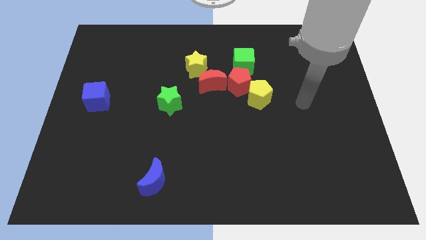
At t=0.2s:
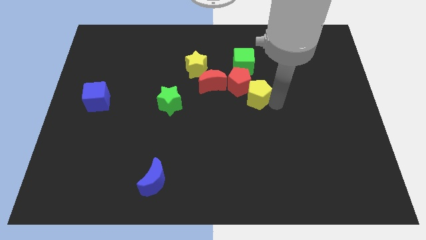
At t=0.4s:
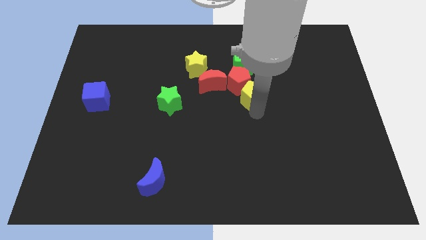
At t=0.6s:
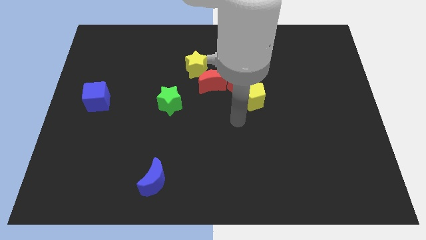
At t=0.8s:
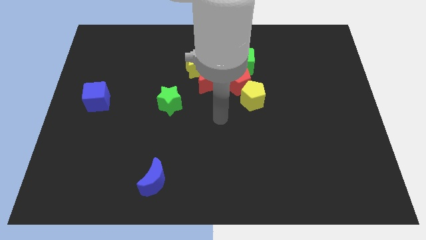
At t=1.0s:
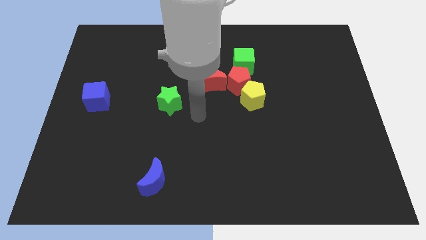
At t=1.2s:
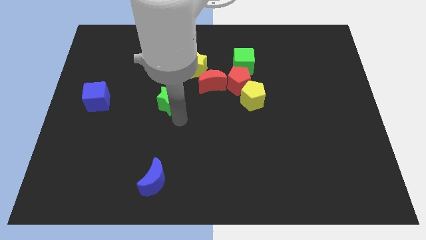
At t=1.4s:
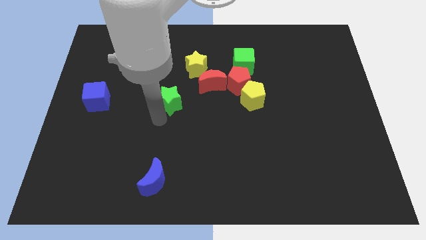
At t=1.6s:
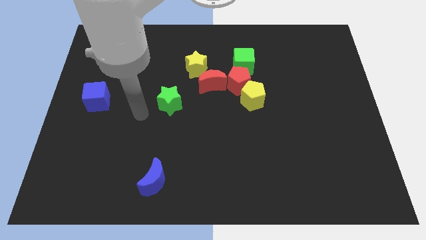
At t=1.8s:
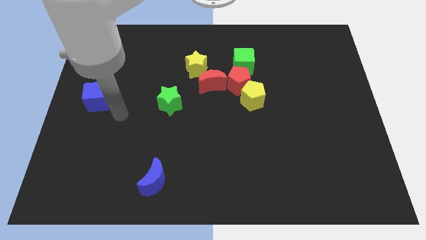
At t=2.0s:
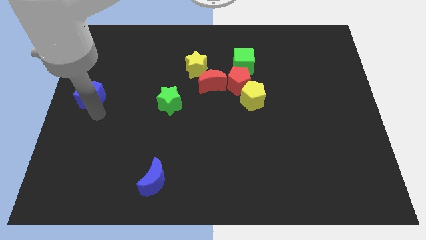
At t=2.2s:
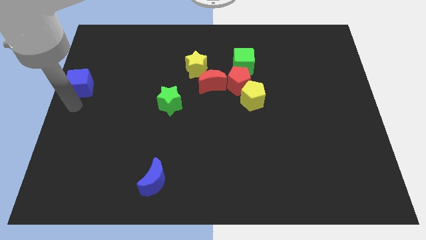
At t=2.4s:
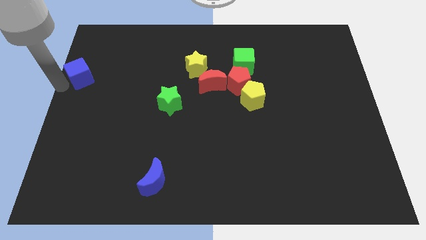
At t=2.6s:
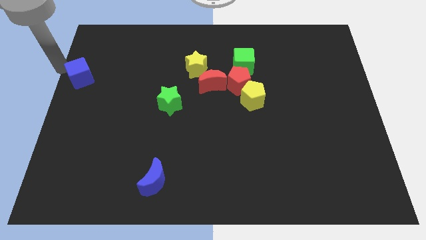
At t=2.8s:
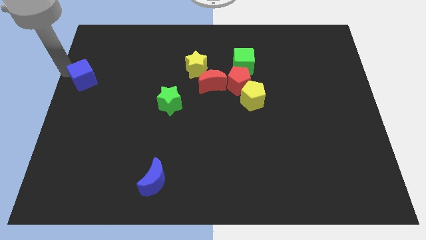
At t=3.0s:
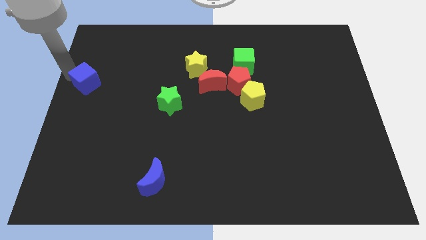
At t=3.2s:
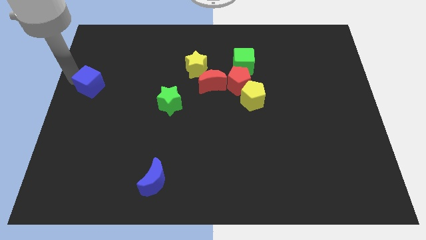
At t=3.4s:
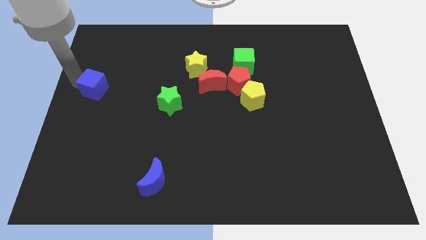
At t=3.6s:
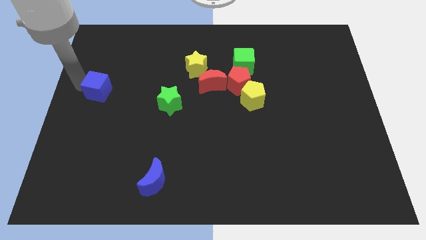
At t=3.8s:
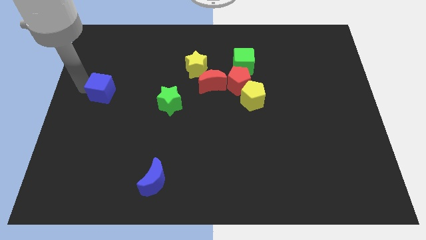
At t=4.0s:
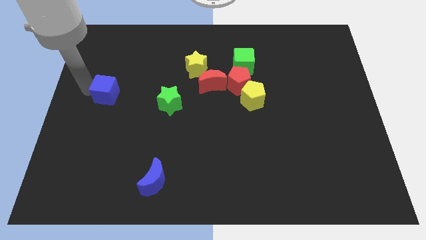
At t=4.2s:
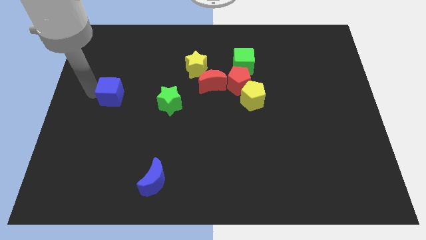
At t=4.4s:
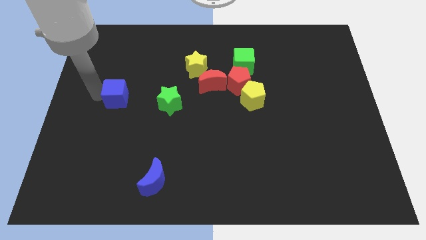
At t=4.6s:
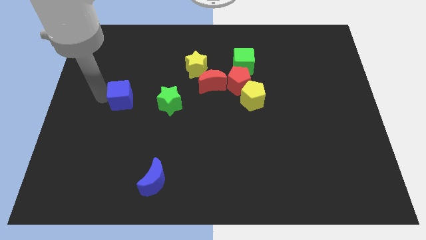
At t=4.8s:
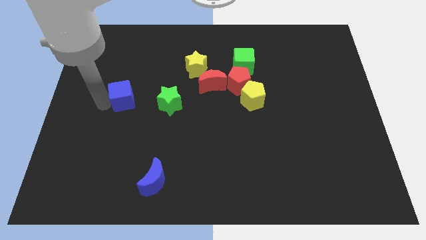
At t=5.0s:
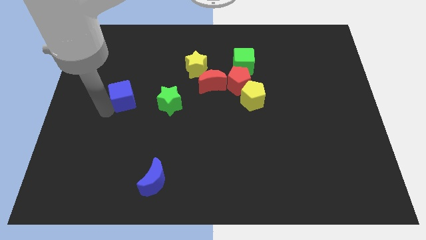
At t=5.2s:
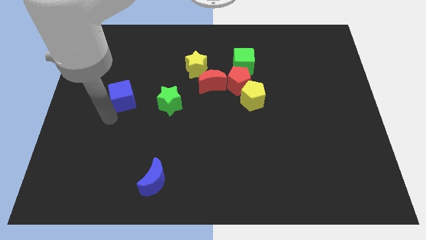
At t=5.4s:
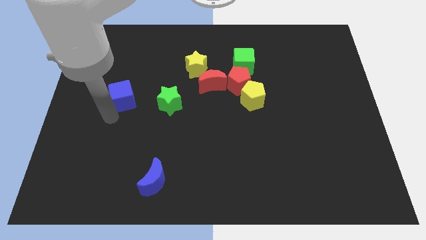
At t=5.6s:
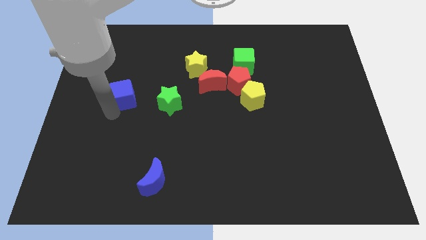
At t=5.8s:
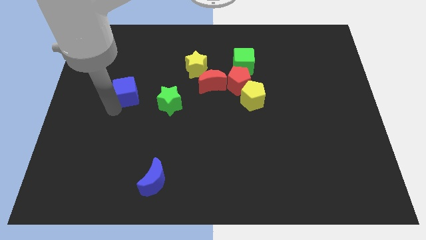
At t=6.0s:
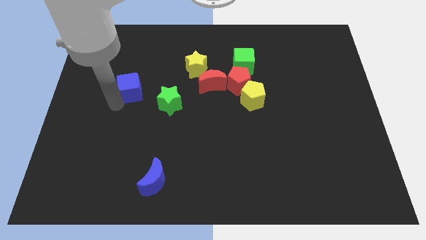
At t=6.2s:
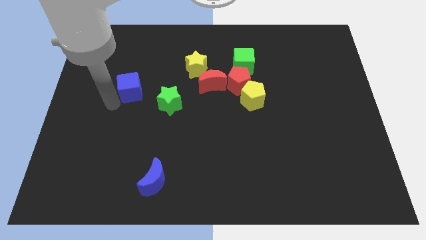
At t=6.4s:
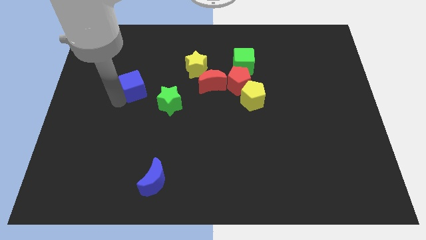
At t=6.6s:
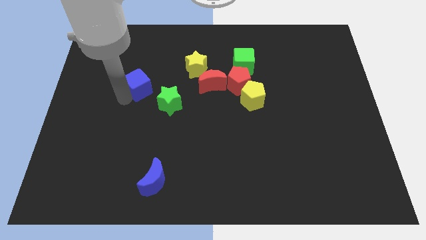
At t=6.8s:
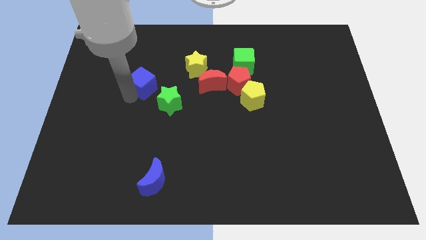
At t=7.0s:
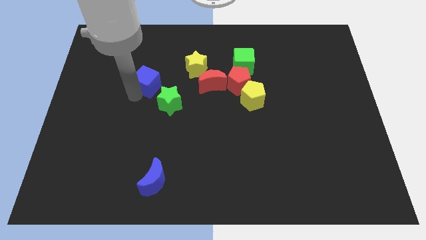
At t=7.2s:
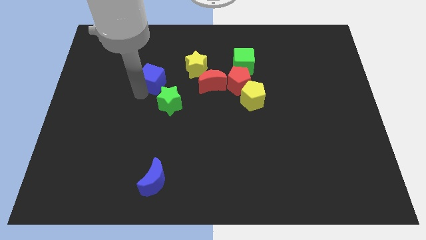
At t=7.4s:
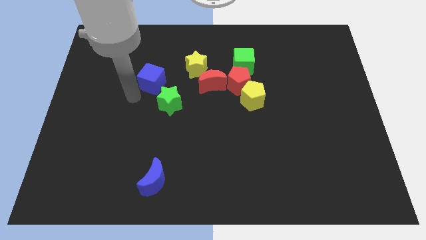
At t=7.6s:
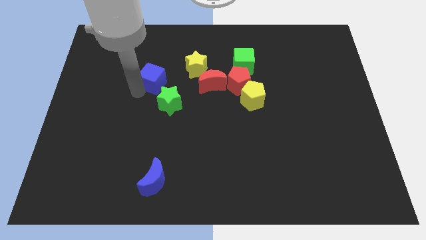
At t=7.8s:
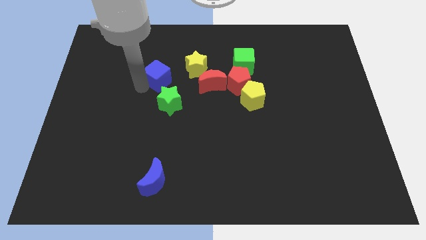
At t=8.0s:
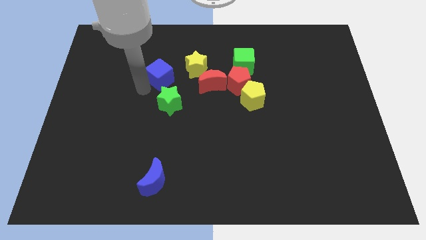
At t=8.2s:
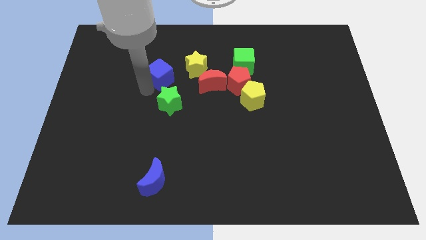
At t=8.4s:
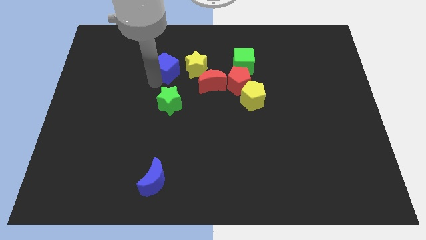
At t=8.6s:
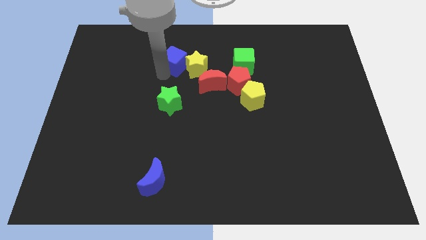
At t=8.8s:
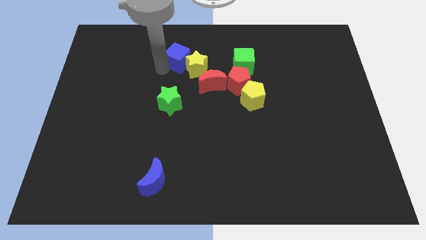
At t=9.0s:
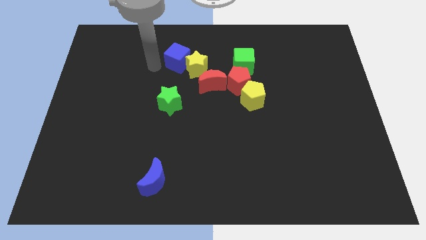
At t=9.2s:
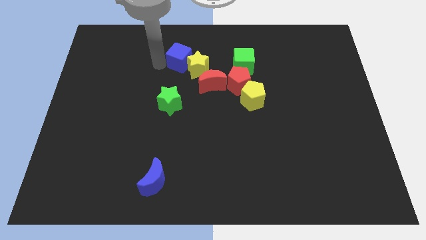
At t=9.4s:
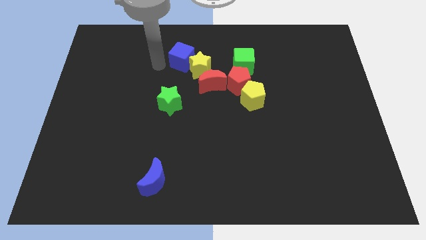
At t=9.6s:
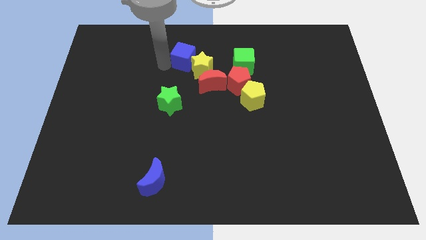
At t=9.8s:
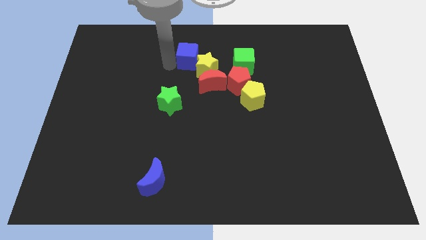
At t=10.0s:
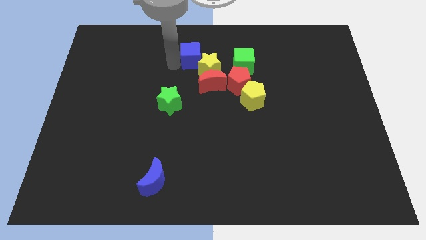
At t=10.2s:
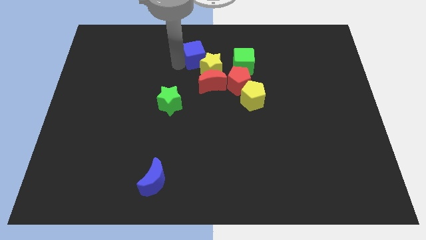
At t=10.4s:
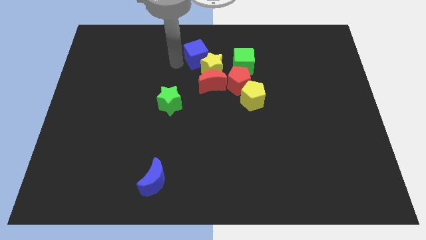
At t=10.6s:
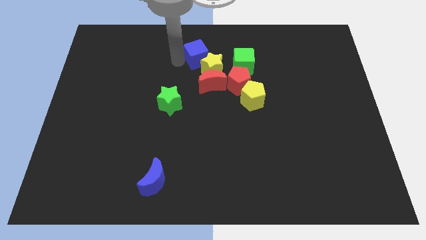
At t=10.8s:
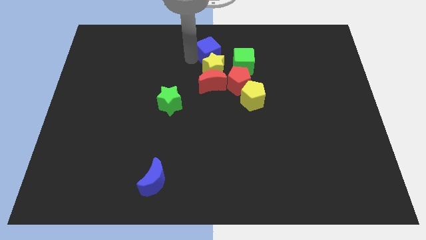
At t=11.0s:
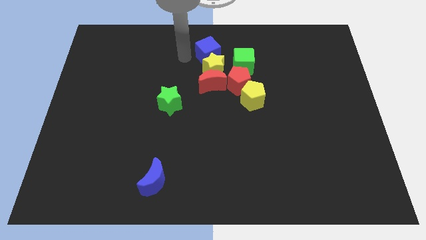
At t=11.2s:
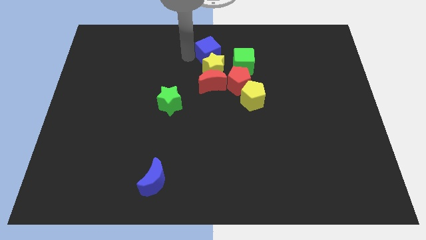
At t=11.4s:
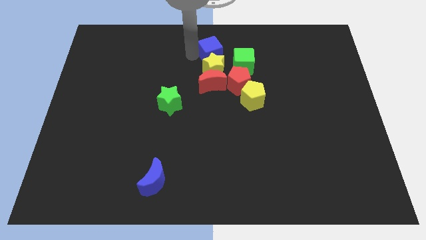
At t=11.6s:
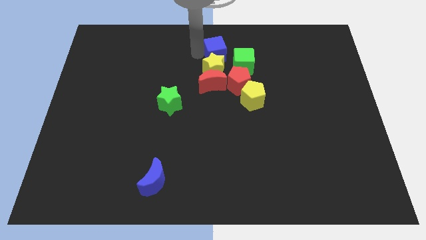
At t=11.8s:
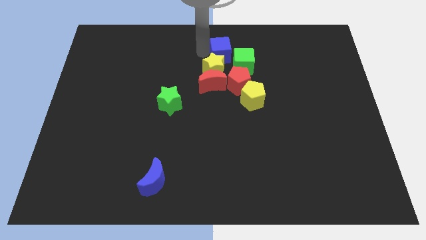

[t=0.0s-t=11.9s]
slide the blue cube to the top side of the red pentagon

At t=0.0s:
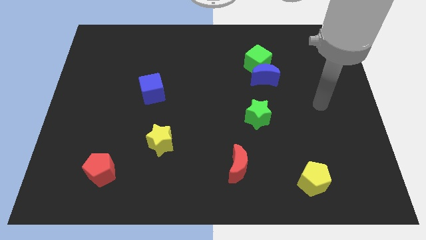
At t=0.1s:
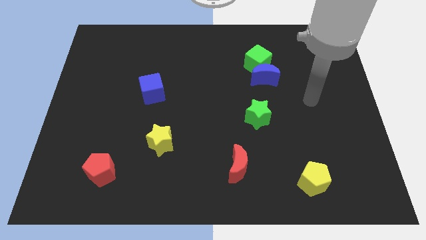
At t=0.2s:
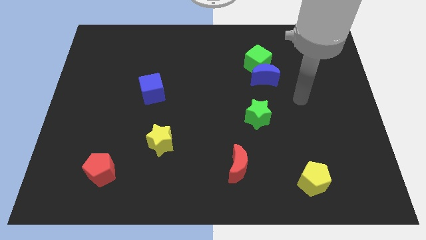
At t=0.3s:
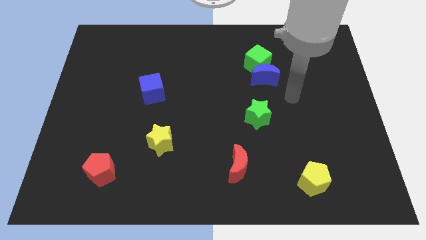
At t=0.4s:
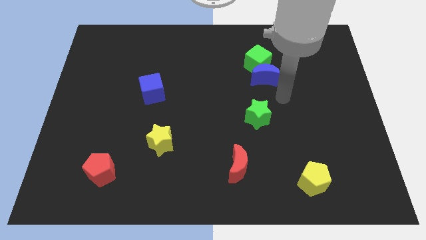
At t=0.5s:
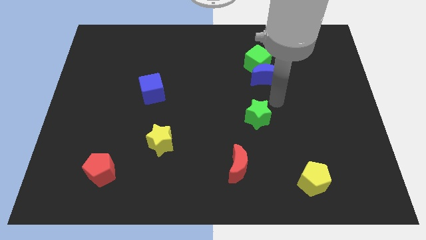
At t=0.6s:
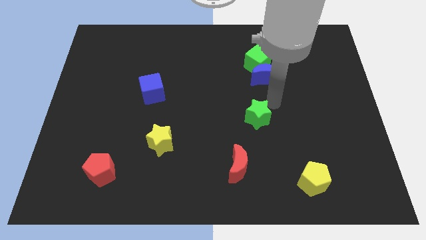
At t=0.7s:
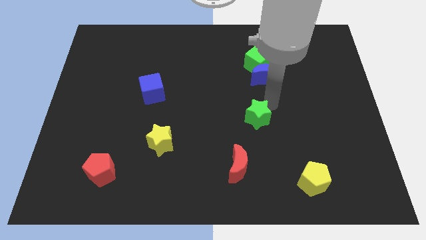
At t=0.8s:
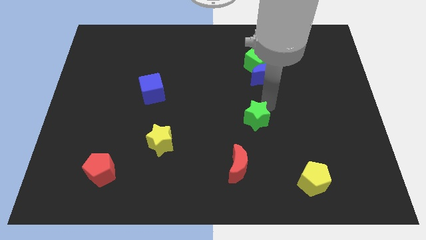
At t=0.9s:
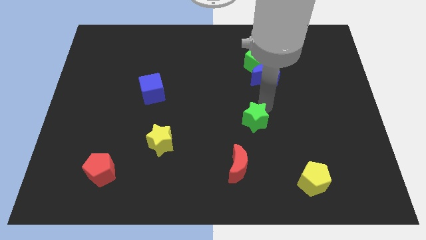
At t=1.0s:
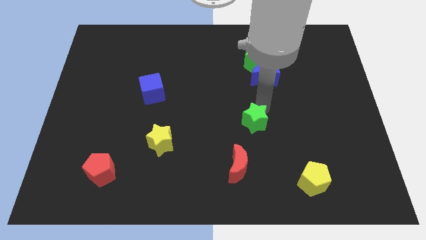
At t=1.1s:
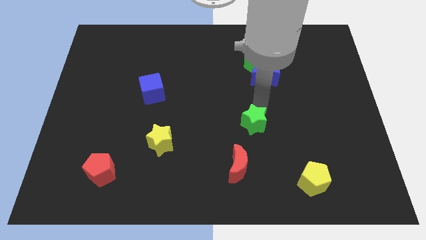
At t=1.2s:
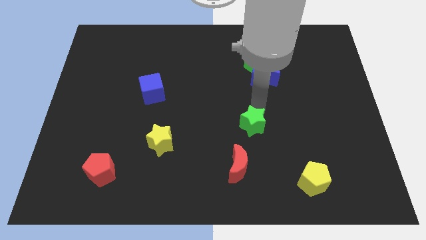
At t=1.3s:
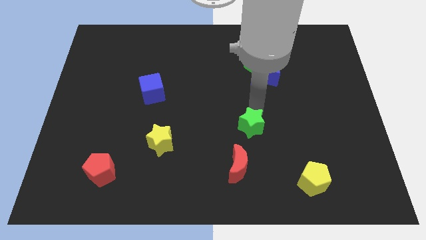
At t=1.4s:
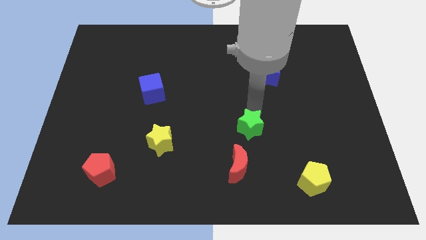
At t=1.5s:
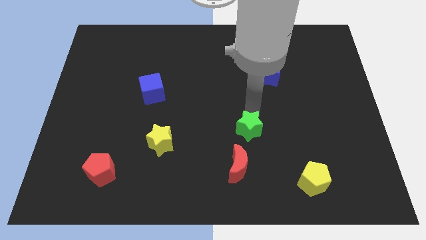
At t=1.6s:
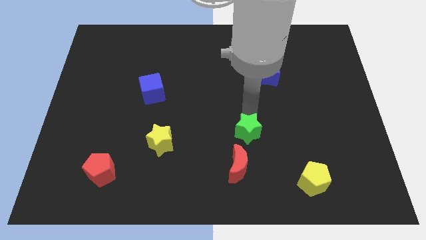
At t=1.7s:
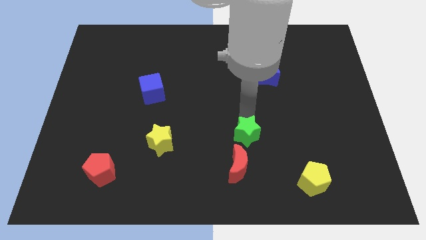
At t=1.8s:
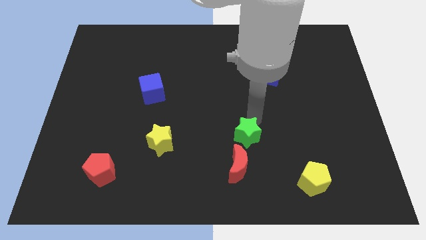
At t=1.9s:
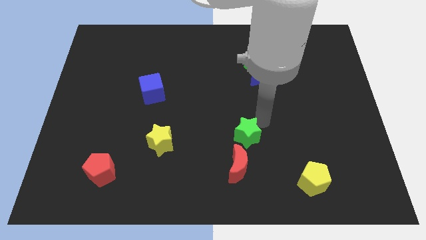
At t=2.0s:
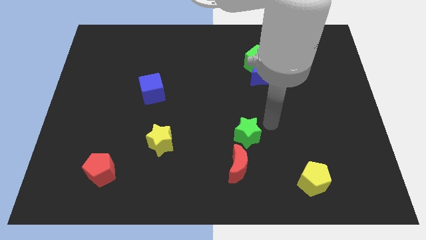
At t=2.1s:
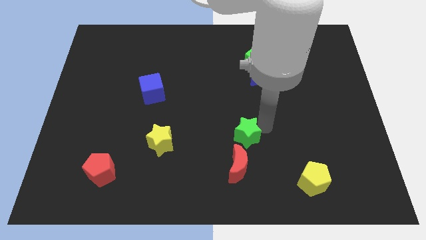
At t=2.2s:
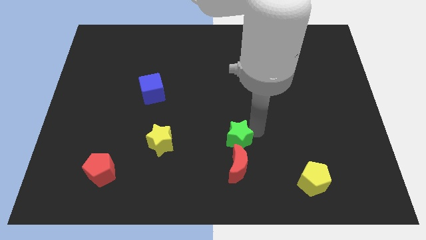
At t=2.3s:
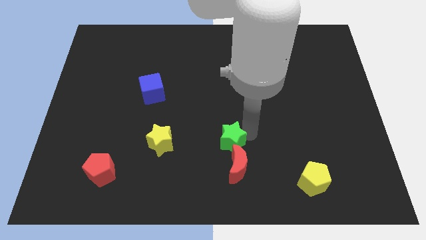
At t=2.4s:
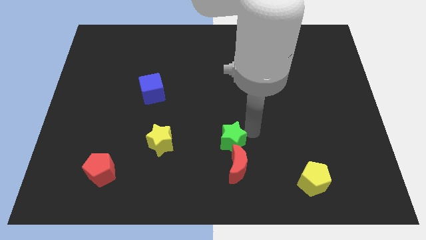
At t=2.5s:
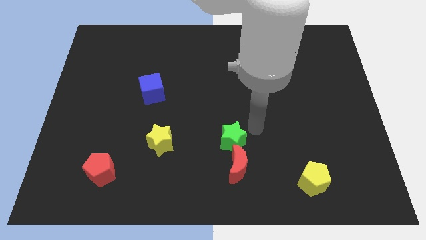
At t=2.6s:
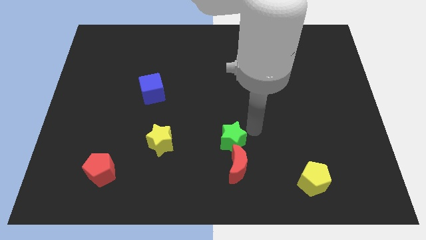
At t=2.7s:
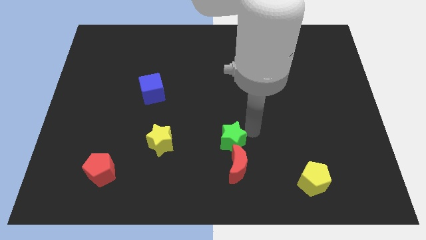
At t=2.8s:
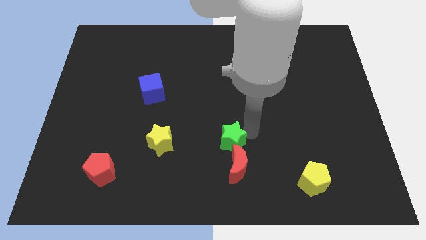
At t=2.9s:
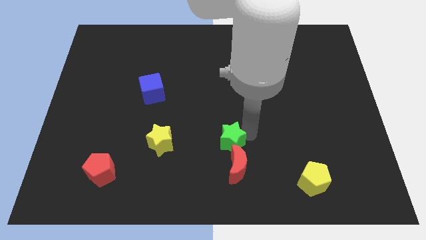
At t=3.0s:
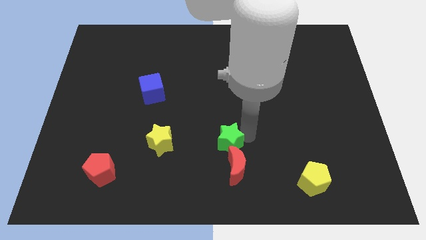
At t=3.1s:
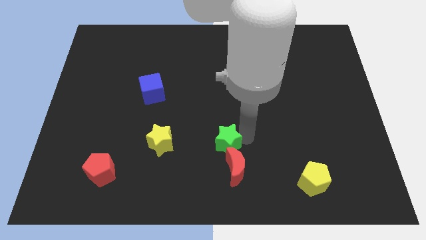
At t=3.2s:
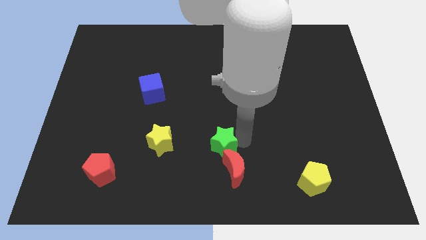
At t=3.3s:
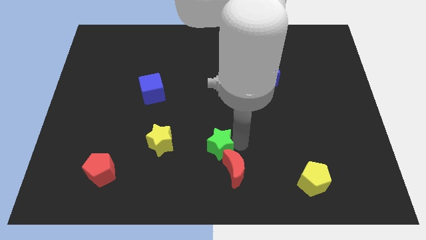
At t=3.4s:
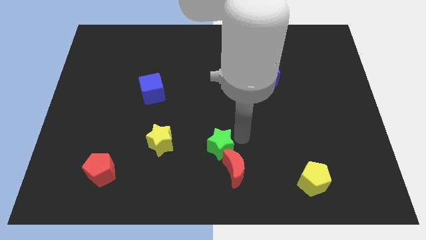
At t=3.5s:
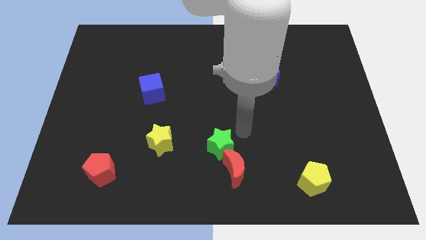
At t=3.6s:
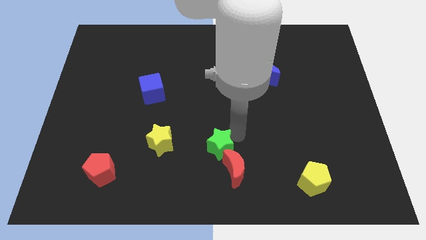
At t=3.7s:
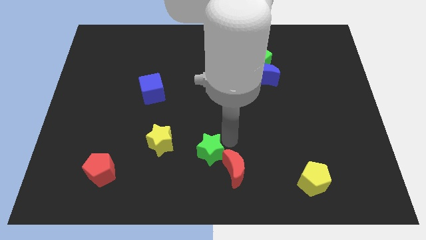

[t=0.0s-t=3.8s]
put the green star just left of the red moon
